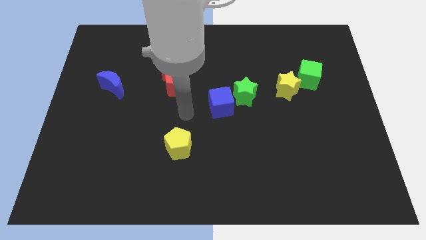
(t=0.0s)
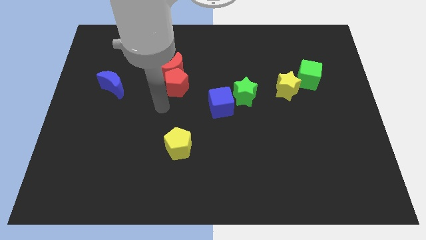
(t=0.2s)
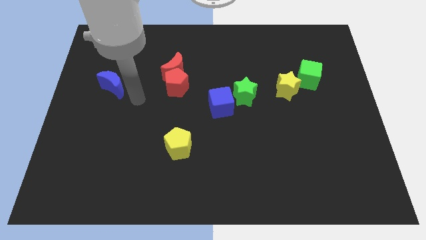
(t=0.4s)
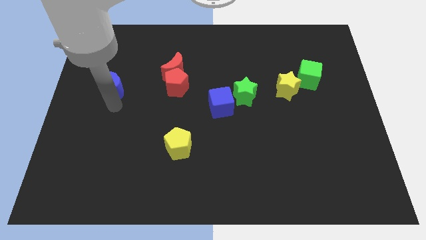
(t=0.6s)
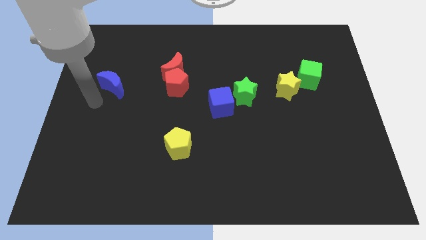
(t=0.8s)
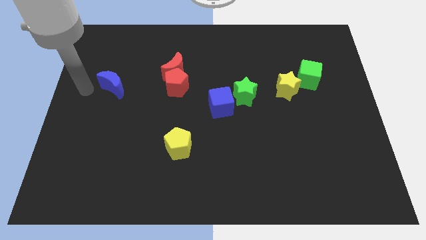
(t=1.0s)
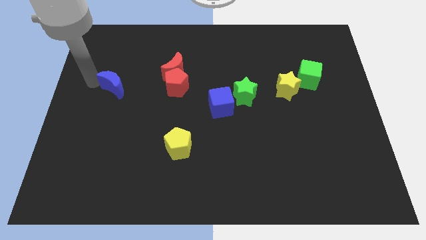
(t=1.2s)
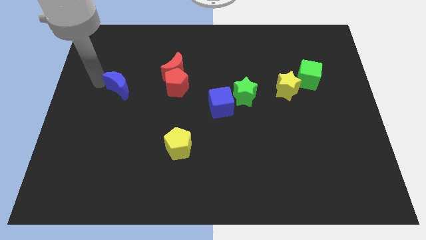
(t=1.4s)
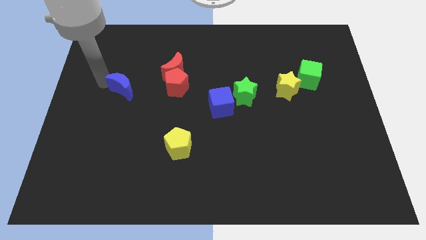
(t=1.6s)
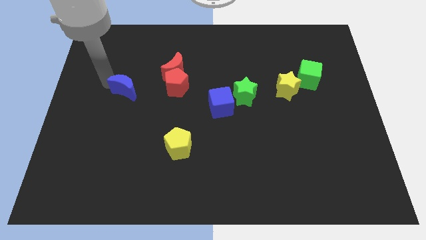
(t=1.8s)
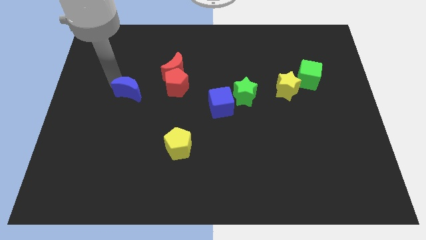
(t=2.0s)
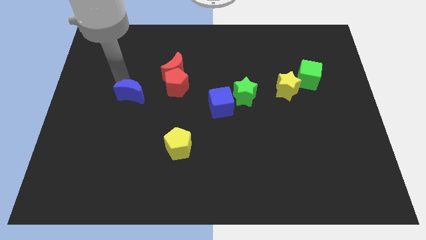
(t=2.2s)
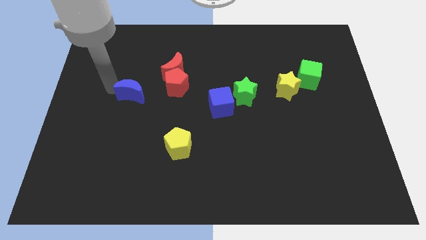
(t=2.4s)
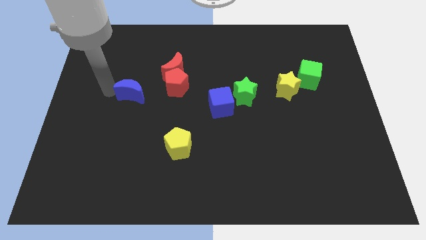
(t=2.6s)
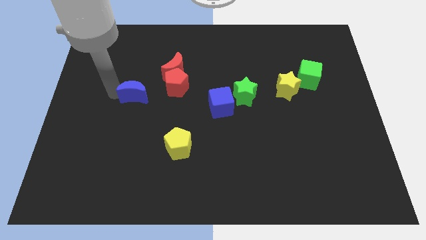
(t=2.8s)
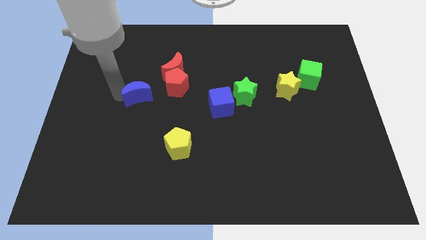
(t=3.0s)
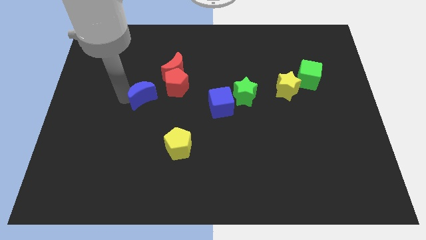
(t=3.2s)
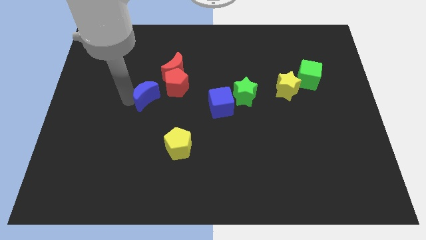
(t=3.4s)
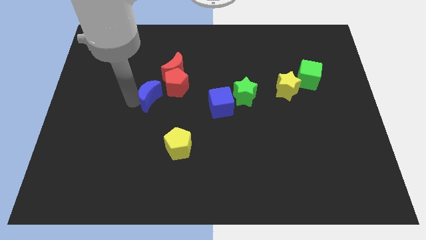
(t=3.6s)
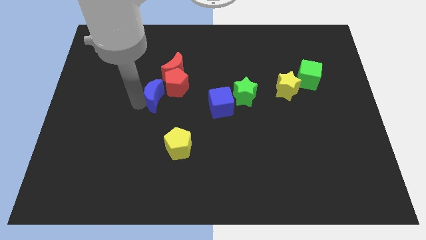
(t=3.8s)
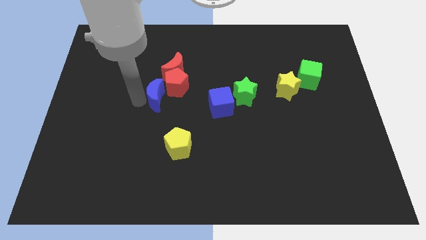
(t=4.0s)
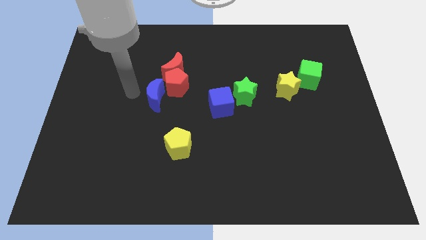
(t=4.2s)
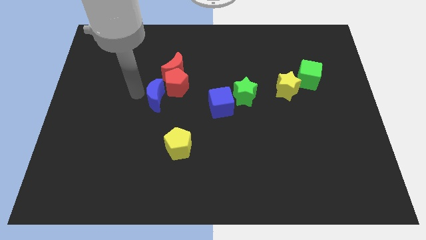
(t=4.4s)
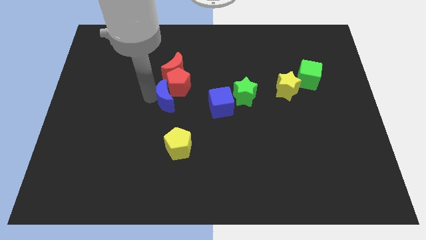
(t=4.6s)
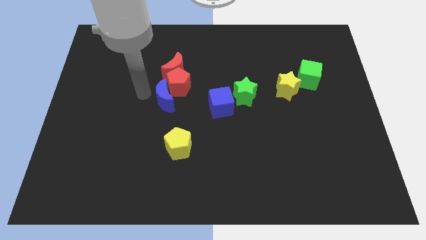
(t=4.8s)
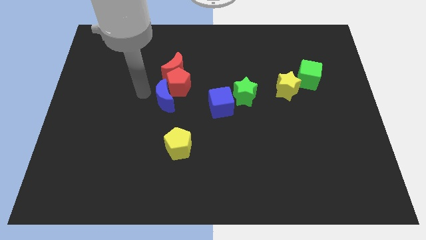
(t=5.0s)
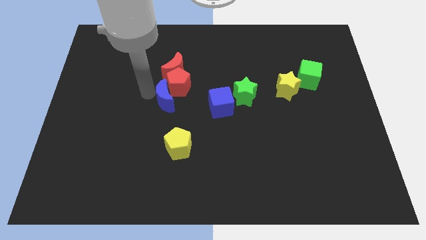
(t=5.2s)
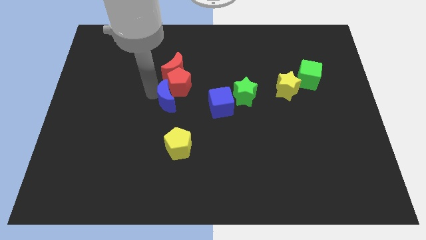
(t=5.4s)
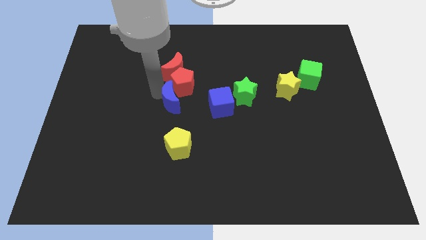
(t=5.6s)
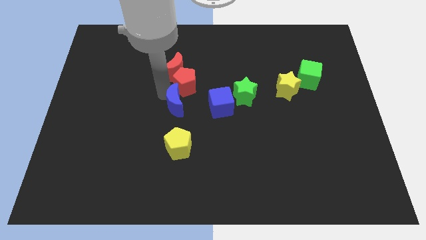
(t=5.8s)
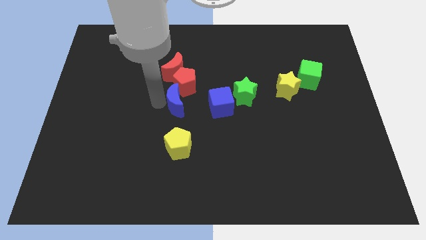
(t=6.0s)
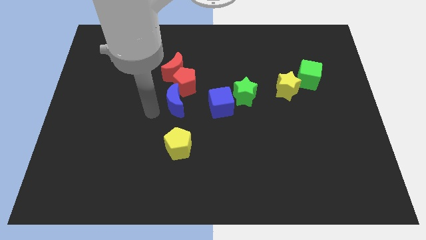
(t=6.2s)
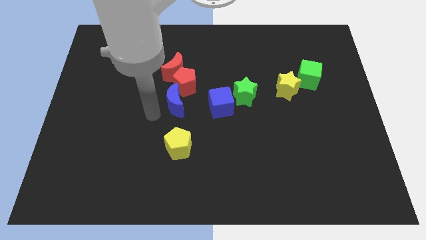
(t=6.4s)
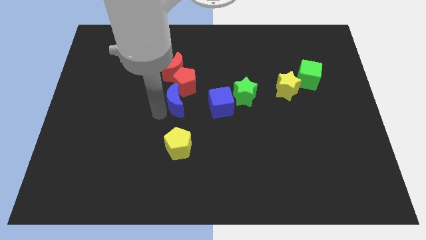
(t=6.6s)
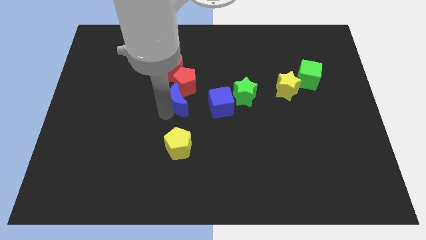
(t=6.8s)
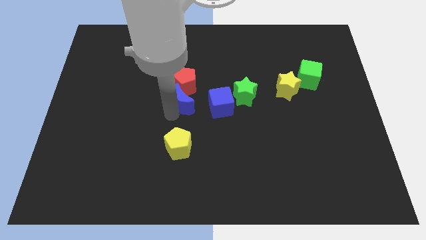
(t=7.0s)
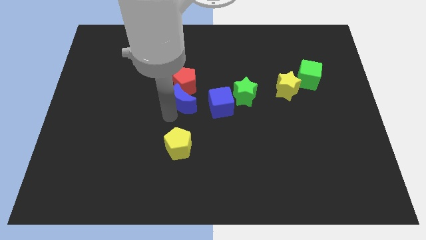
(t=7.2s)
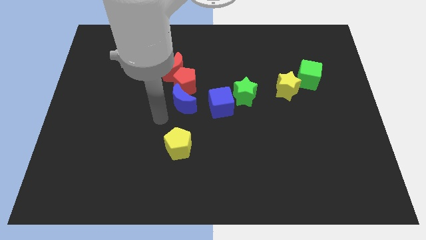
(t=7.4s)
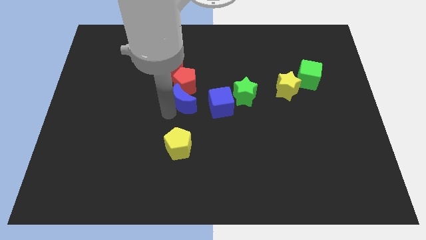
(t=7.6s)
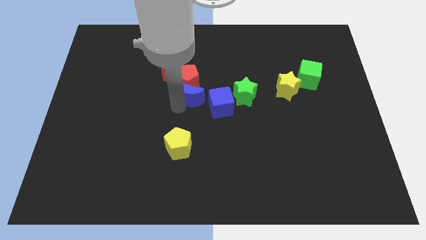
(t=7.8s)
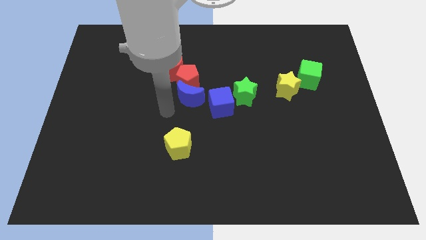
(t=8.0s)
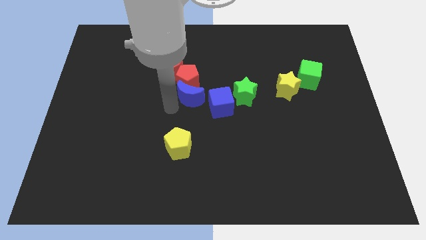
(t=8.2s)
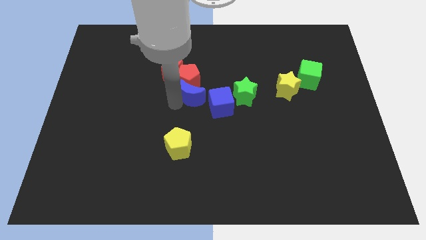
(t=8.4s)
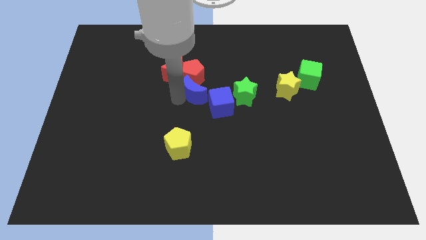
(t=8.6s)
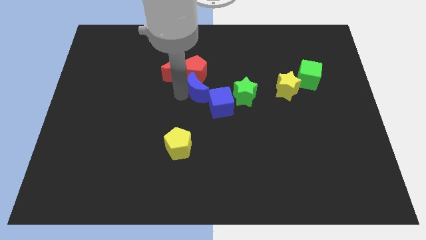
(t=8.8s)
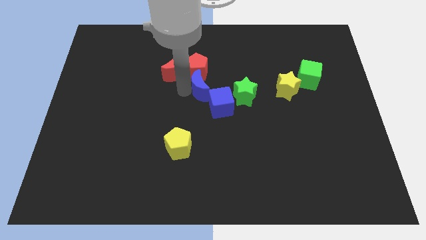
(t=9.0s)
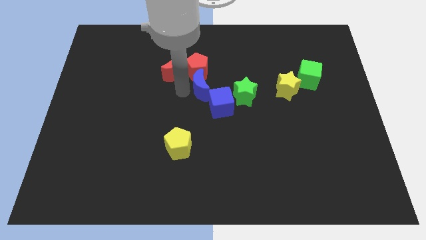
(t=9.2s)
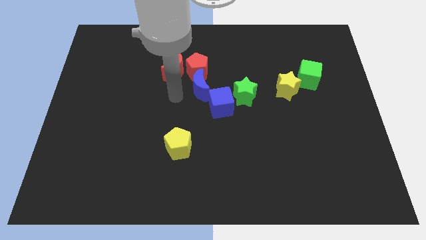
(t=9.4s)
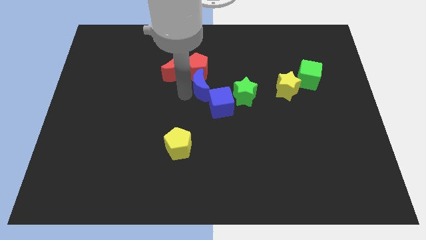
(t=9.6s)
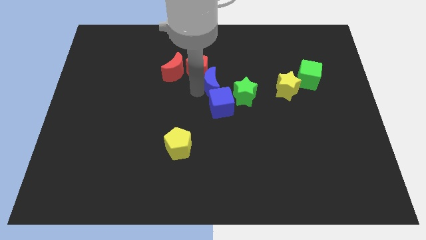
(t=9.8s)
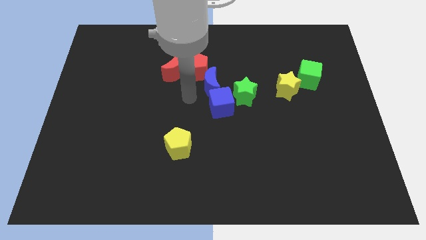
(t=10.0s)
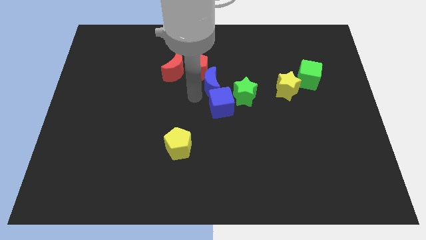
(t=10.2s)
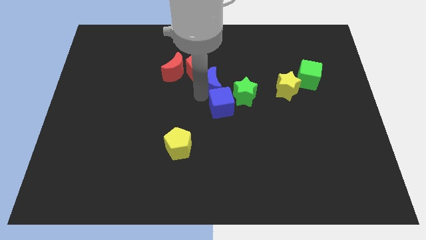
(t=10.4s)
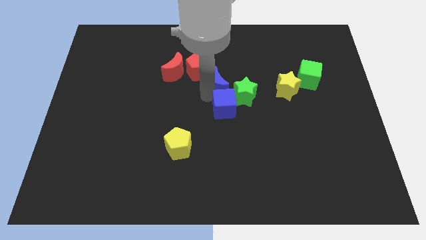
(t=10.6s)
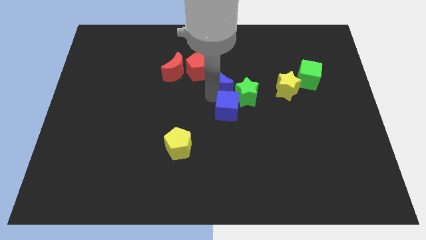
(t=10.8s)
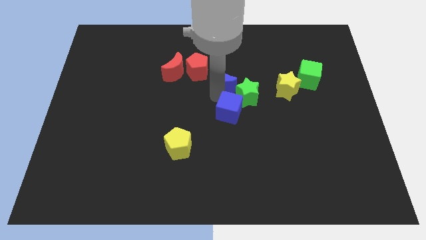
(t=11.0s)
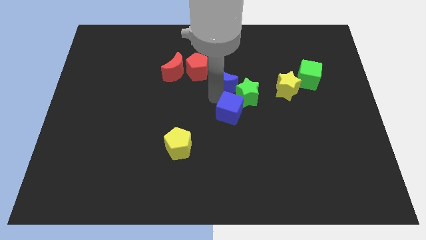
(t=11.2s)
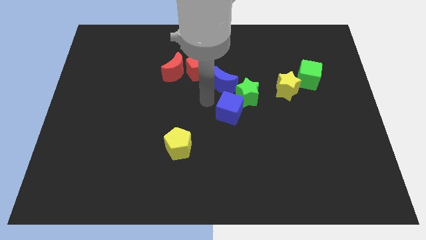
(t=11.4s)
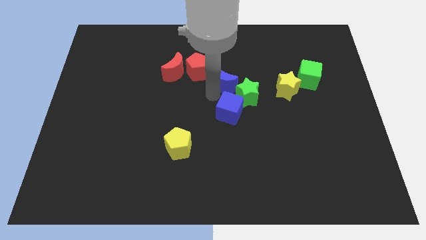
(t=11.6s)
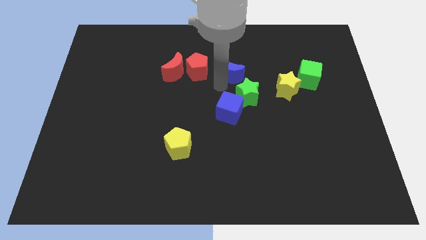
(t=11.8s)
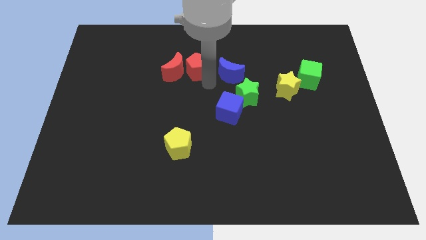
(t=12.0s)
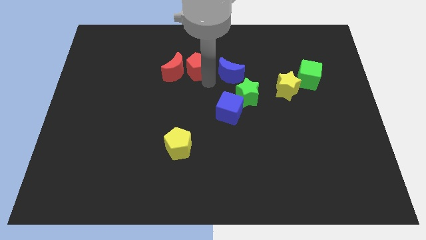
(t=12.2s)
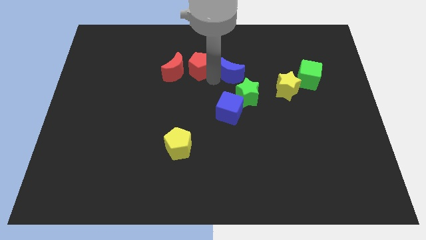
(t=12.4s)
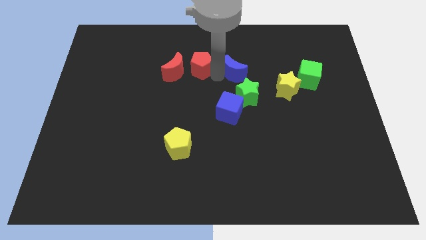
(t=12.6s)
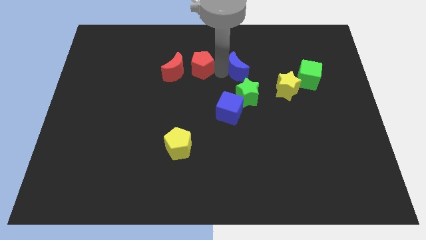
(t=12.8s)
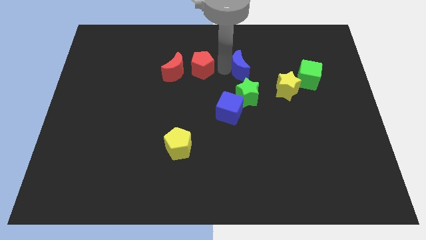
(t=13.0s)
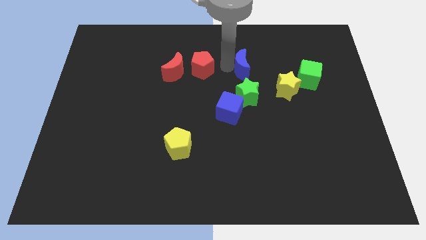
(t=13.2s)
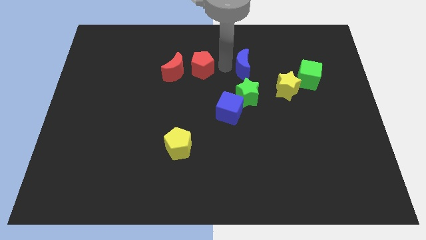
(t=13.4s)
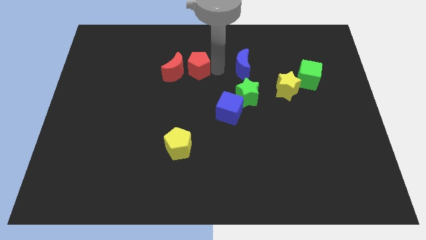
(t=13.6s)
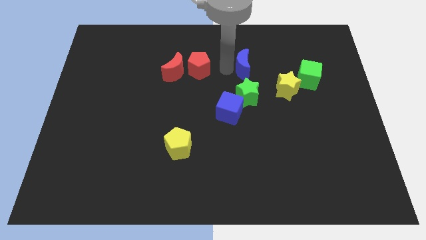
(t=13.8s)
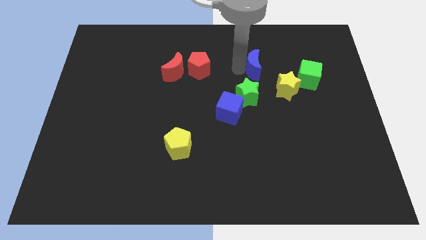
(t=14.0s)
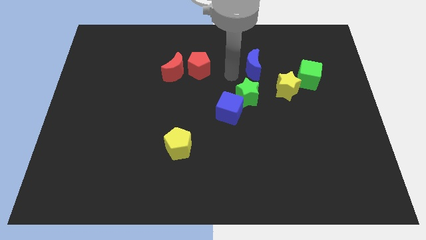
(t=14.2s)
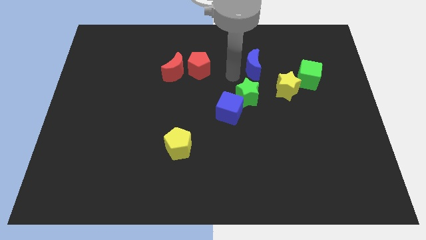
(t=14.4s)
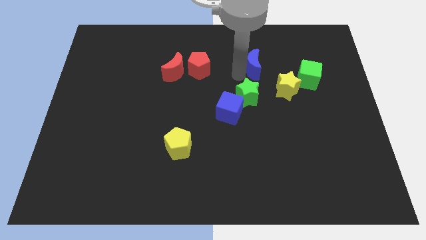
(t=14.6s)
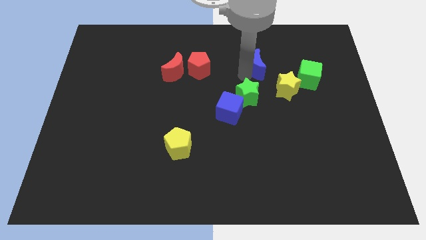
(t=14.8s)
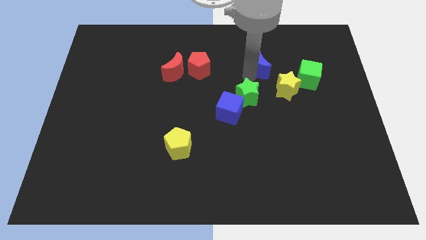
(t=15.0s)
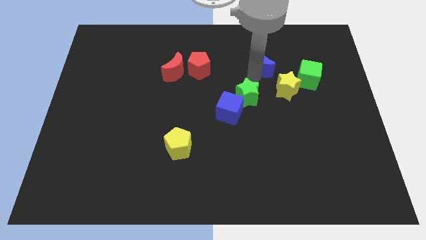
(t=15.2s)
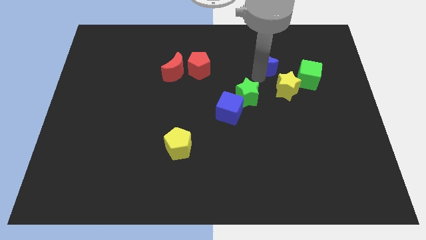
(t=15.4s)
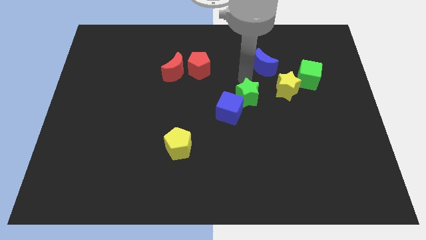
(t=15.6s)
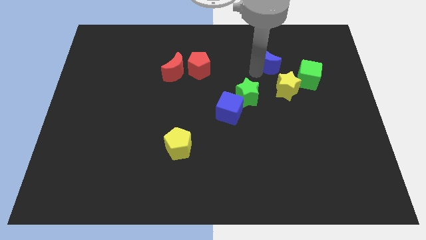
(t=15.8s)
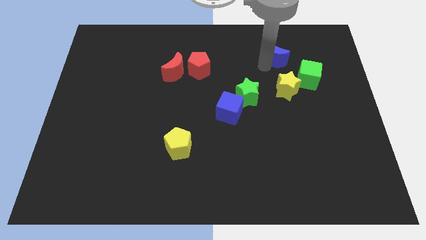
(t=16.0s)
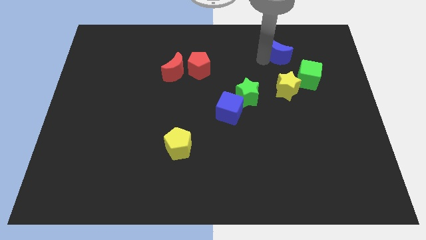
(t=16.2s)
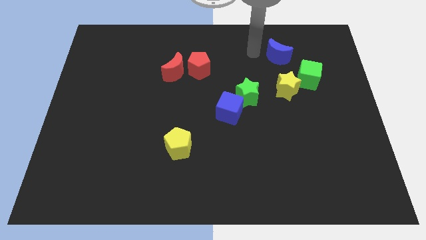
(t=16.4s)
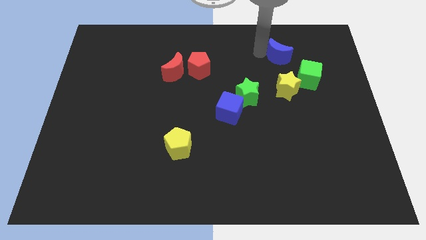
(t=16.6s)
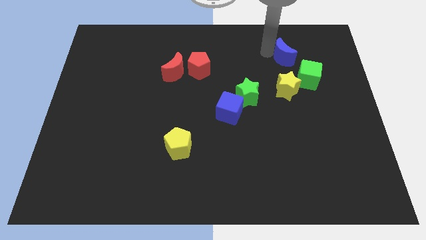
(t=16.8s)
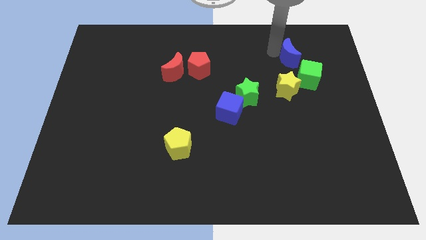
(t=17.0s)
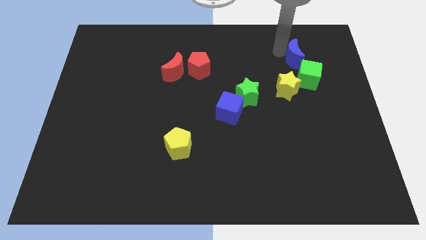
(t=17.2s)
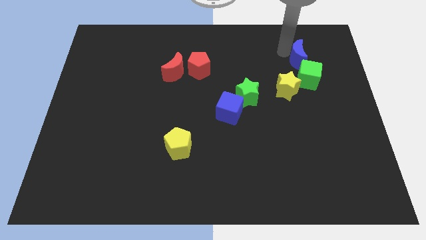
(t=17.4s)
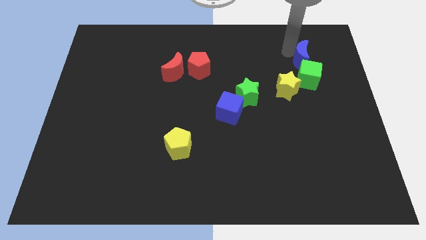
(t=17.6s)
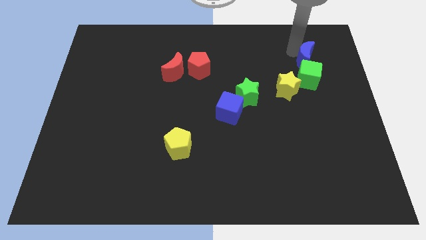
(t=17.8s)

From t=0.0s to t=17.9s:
slide the blue moon to the top right side of the green cube
